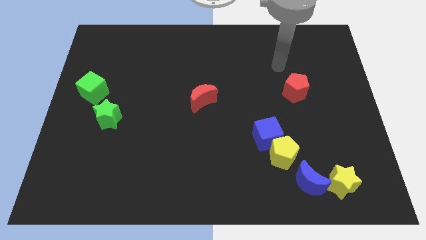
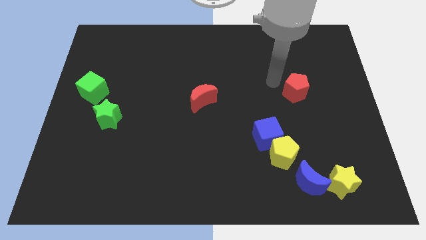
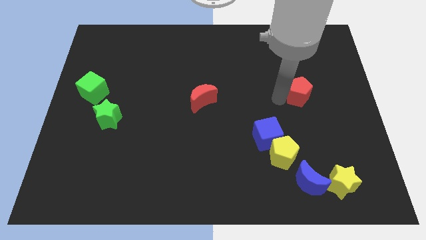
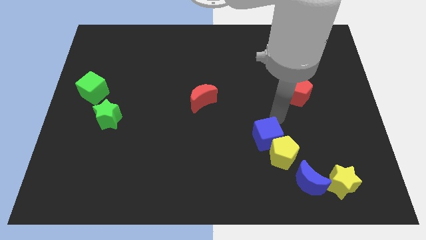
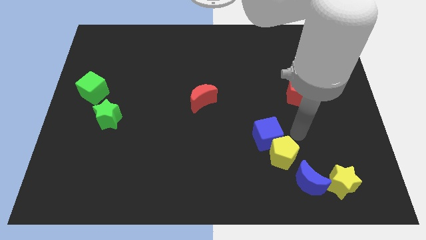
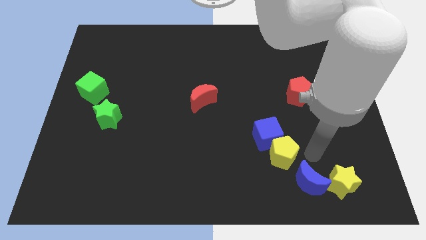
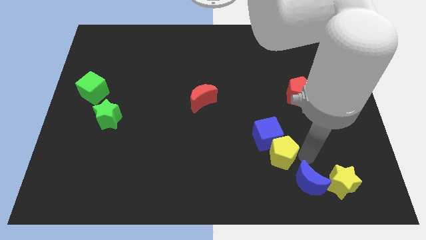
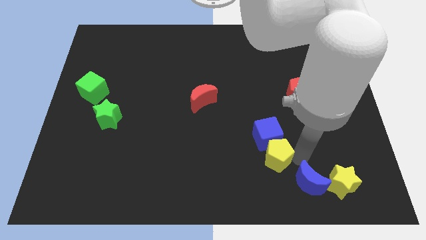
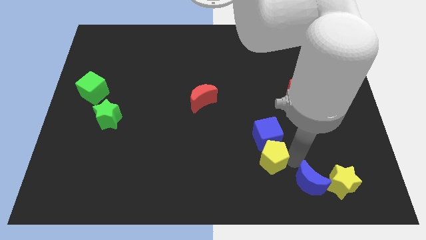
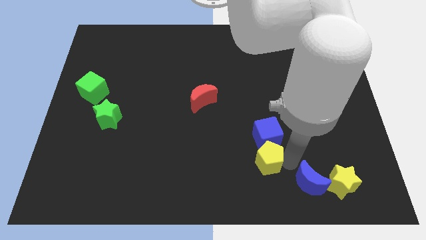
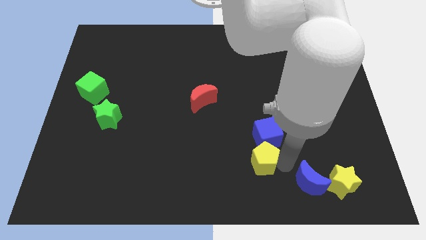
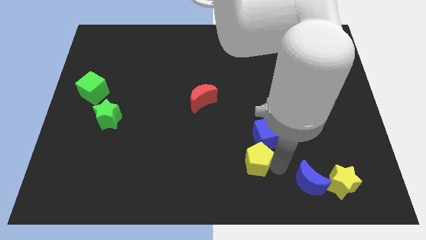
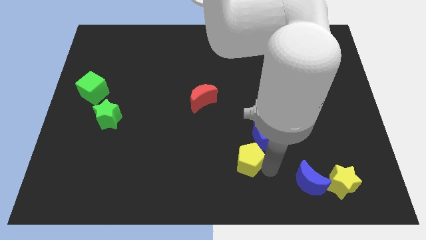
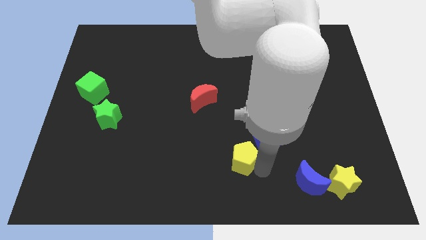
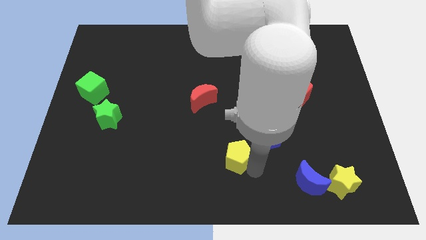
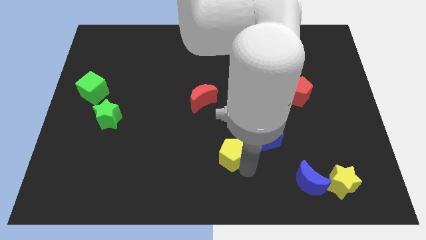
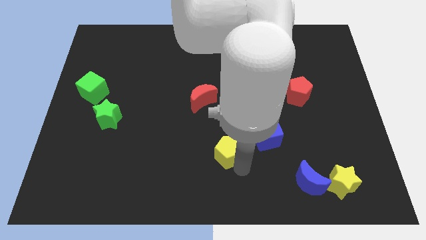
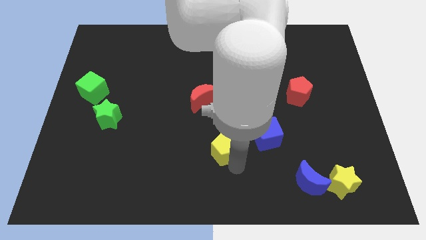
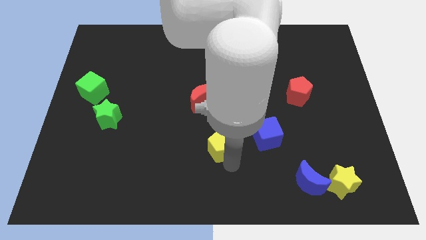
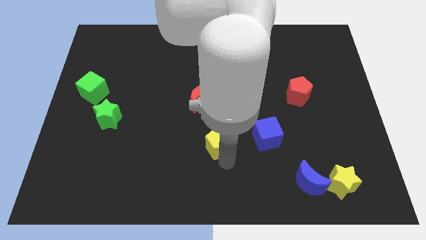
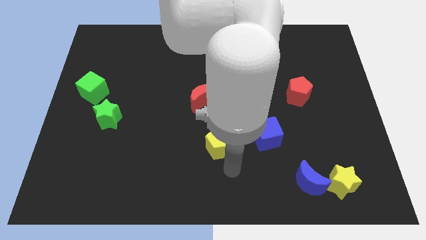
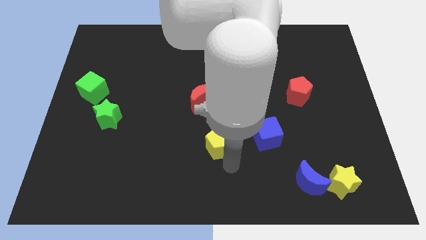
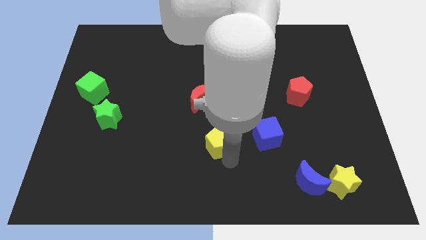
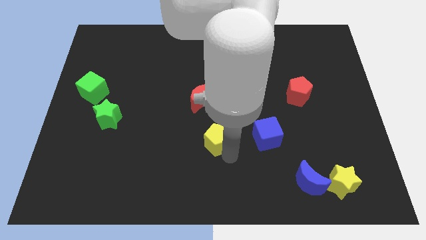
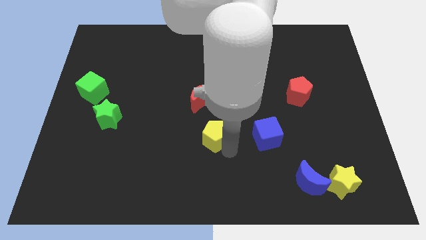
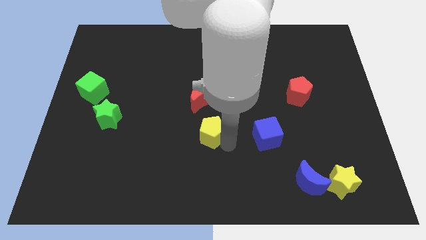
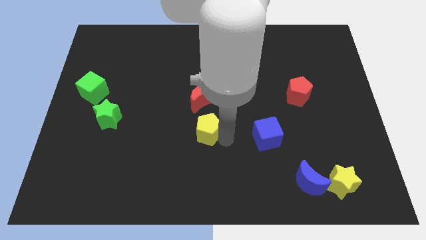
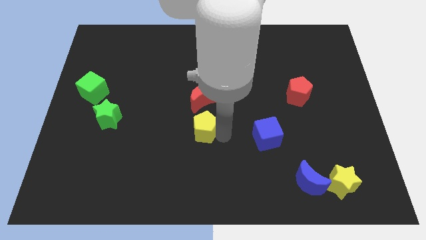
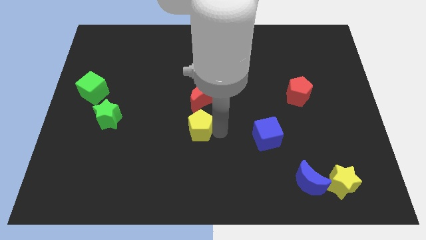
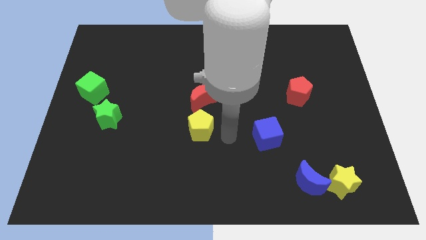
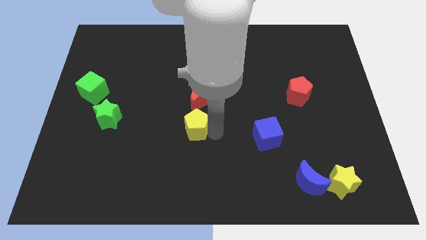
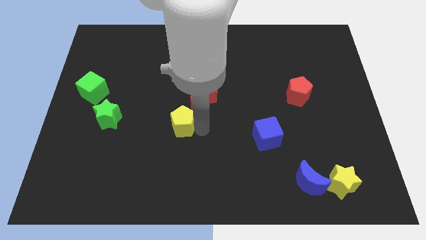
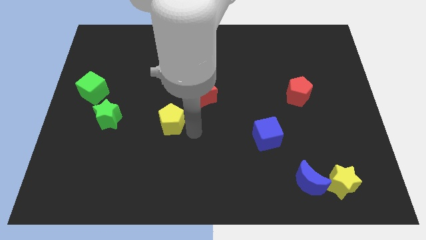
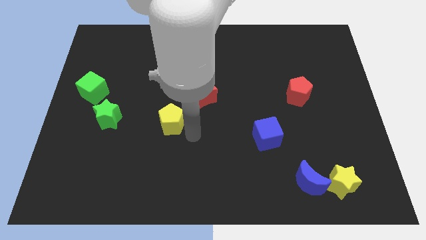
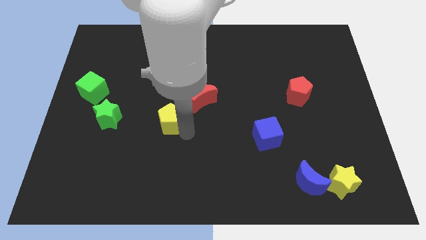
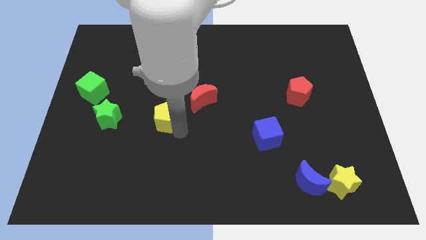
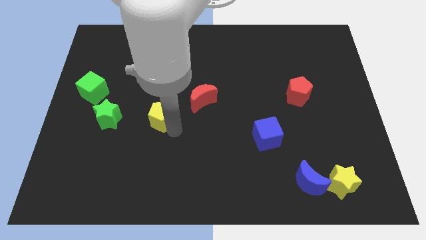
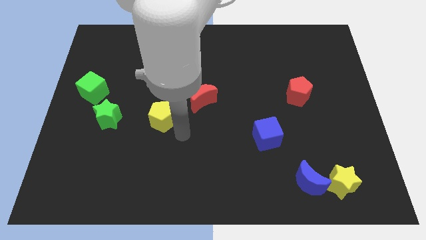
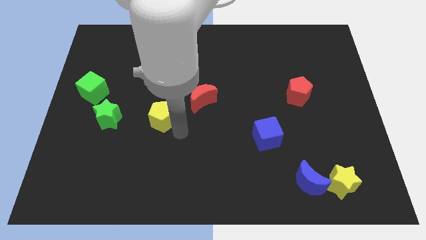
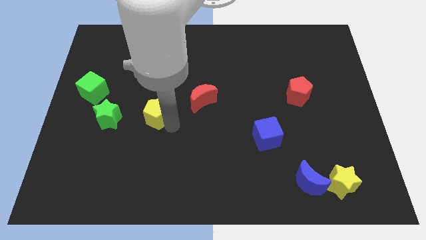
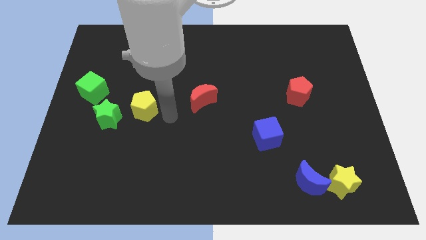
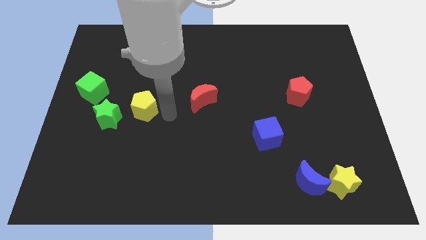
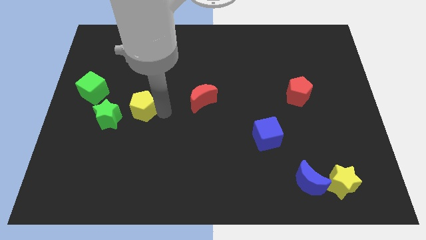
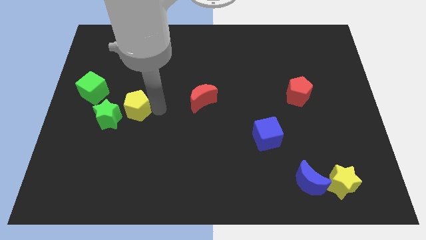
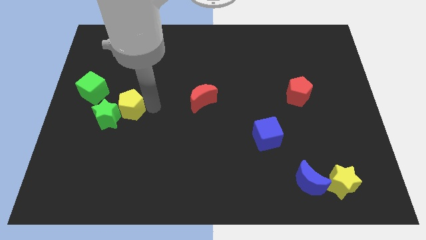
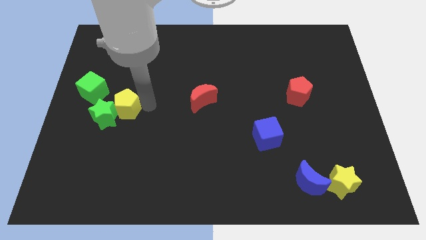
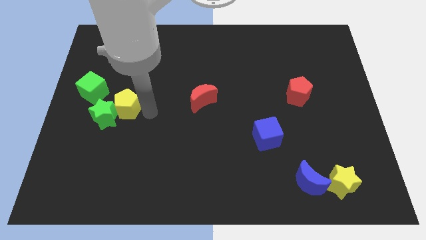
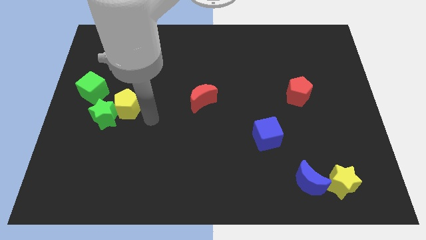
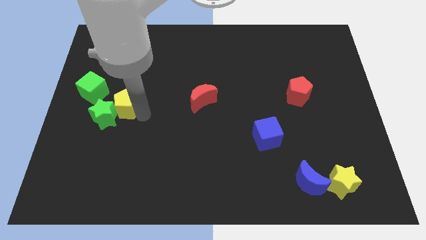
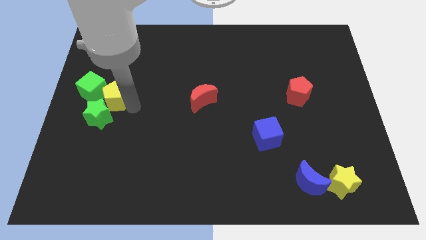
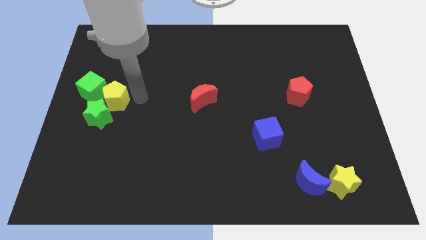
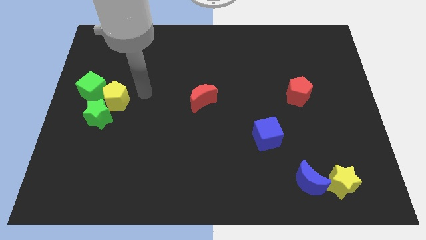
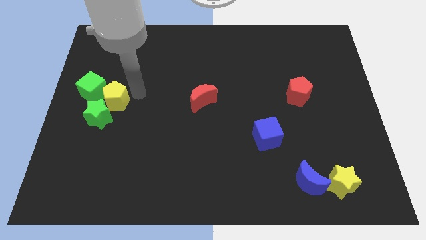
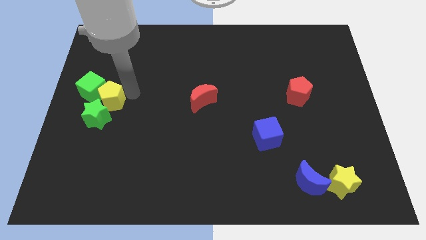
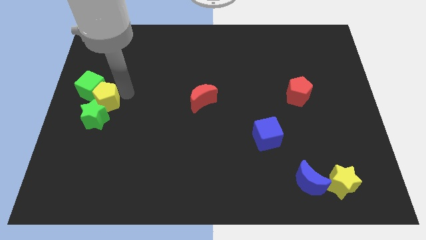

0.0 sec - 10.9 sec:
put the yellow pentagon to the left side

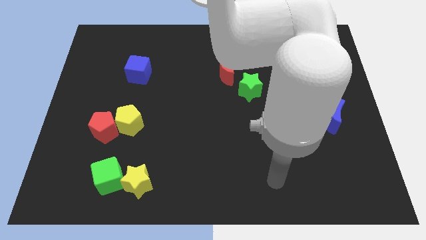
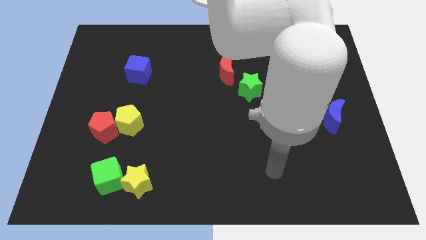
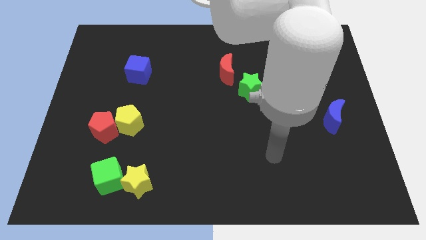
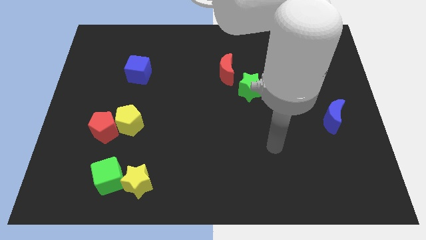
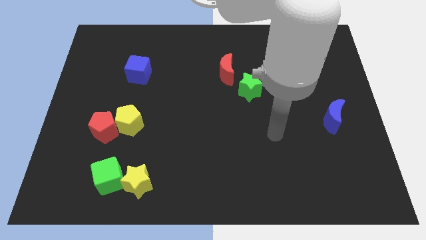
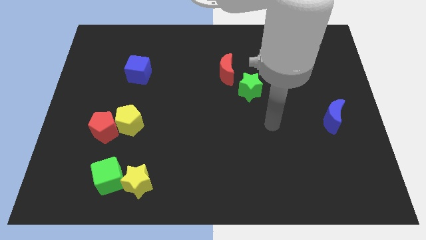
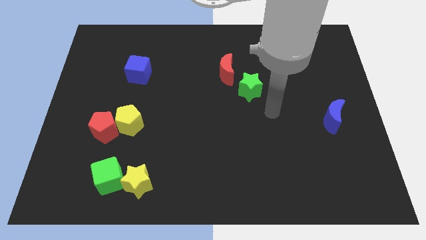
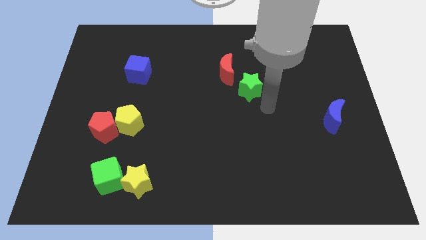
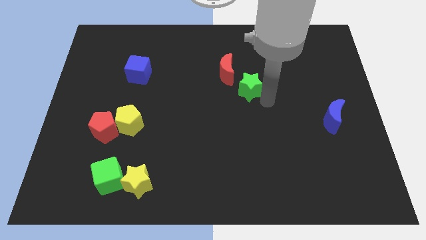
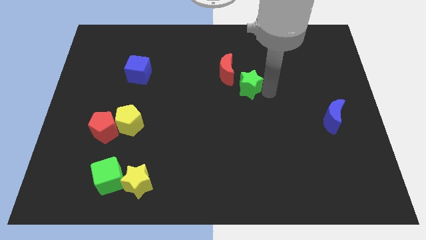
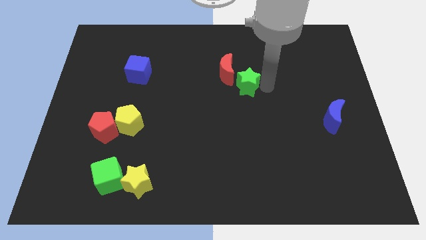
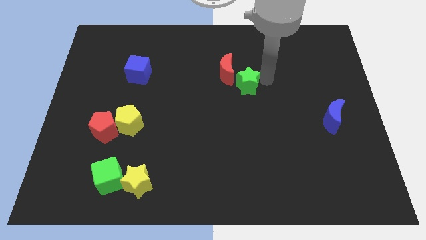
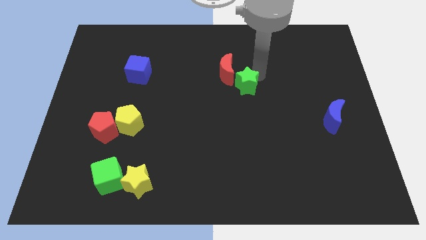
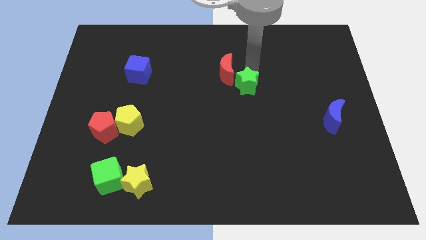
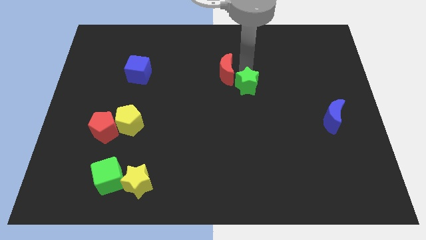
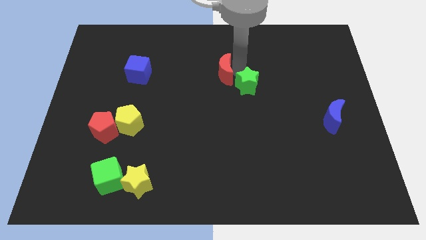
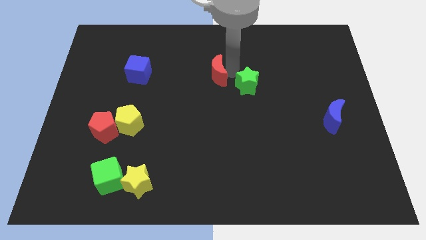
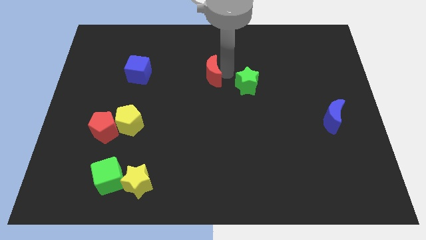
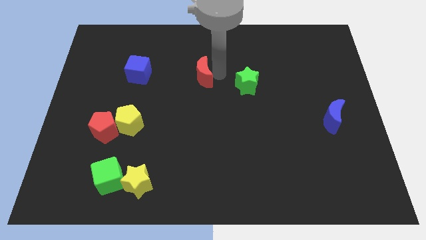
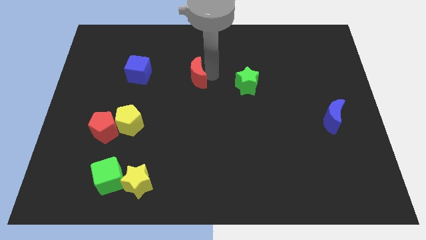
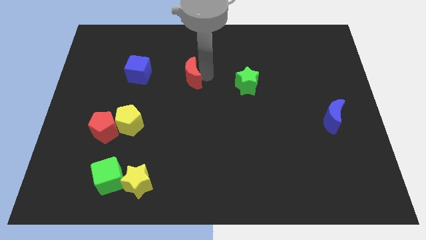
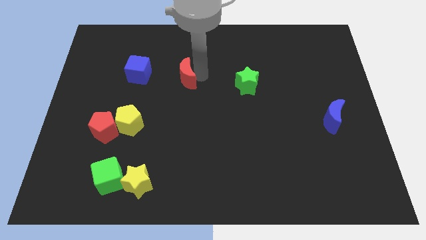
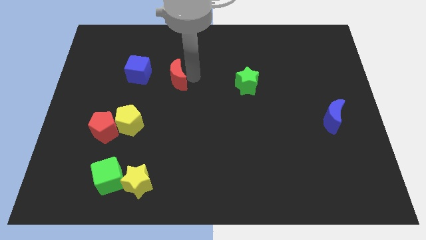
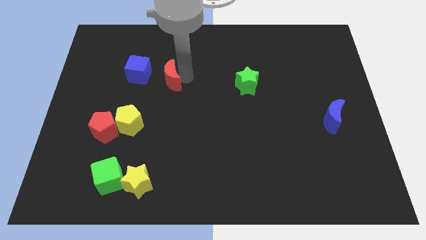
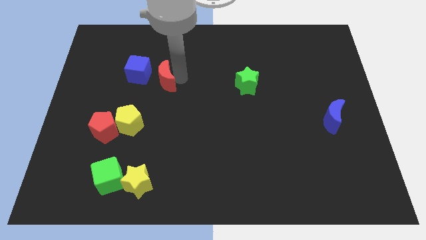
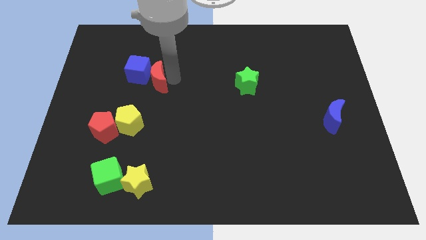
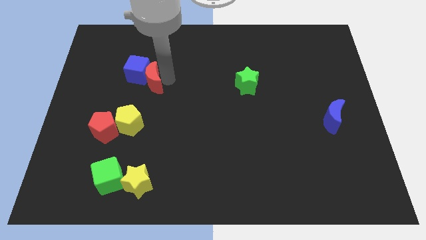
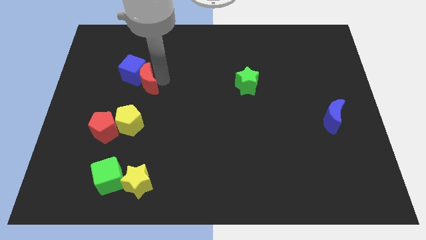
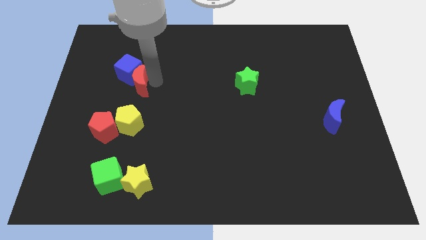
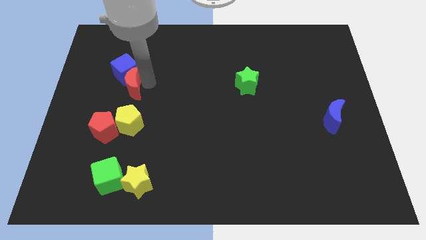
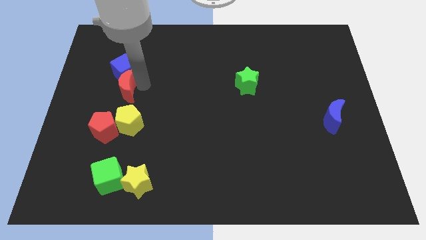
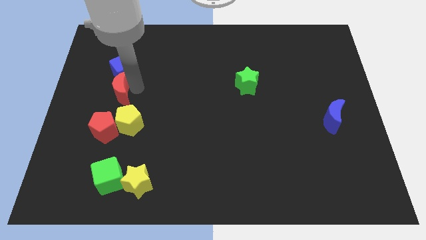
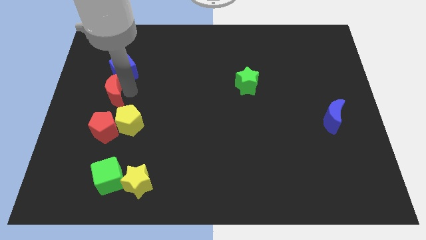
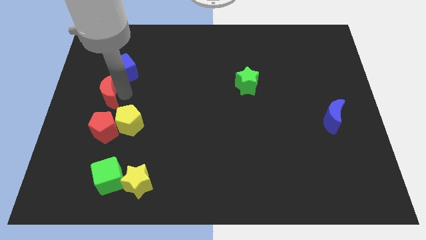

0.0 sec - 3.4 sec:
slide the red moon to the left side of the board
